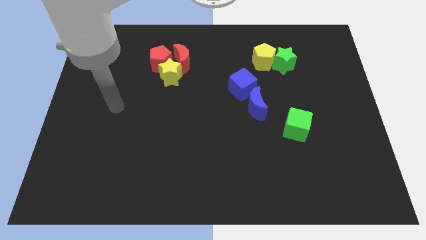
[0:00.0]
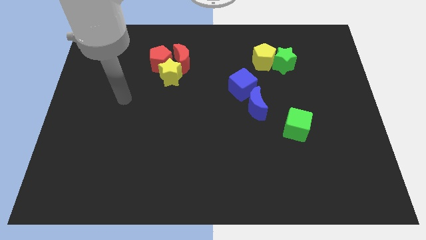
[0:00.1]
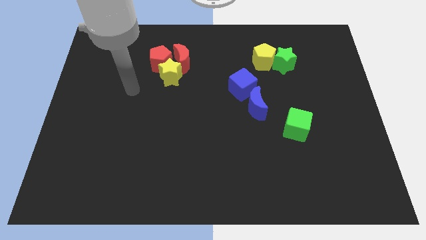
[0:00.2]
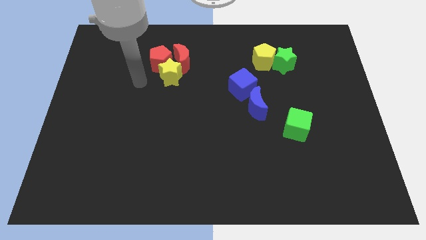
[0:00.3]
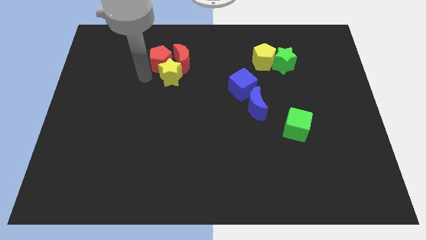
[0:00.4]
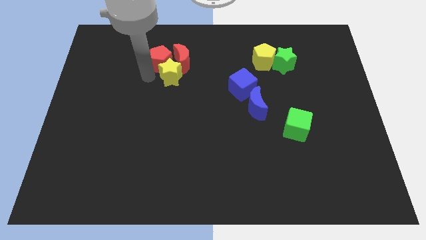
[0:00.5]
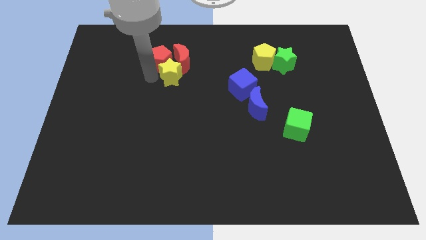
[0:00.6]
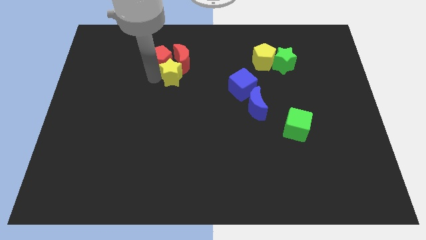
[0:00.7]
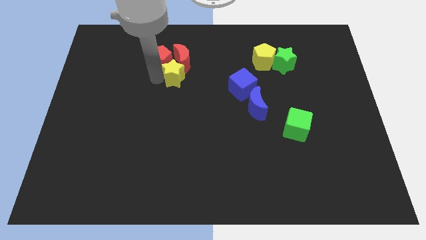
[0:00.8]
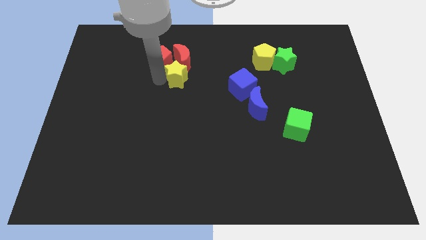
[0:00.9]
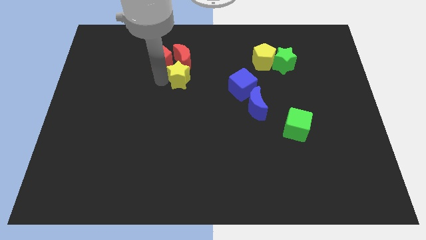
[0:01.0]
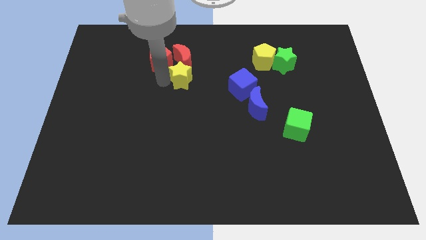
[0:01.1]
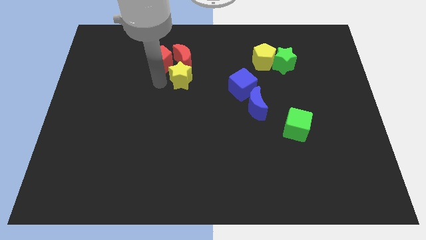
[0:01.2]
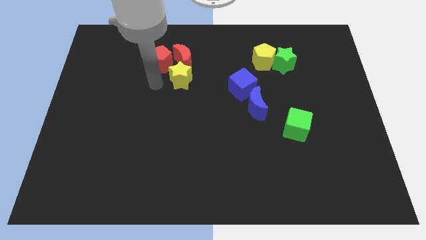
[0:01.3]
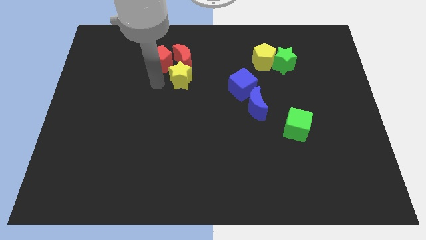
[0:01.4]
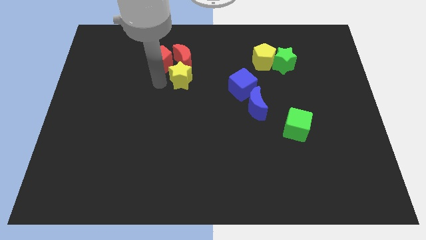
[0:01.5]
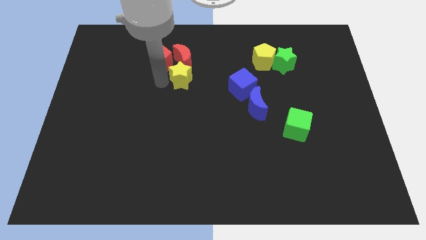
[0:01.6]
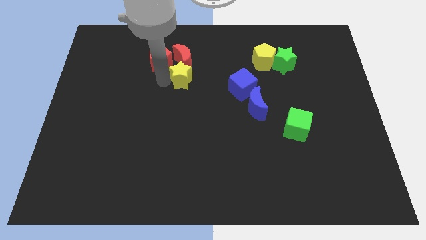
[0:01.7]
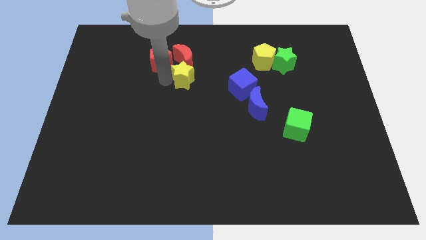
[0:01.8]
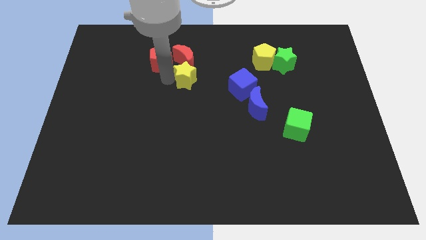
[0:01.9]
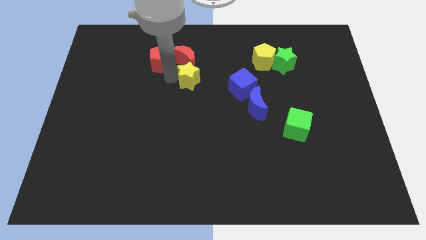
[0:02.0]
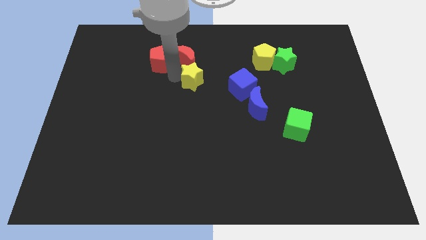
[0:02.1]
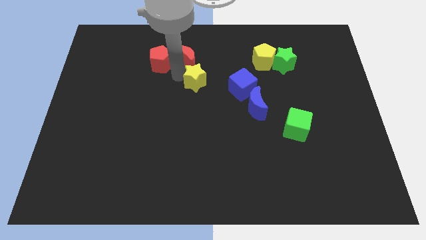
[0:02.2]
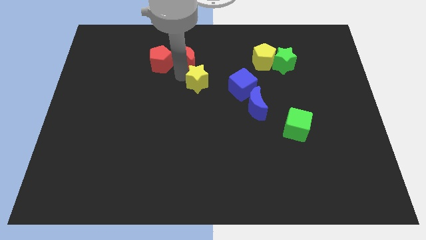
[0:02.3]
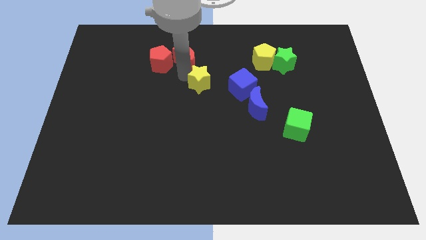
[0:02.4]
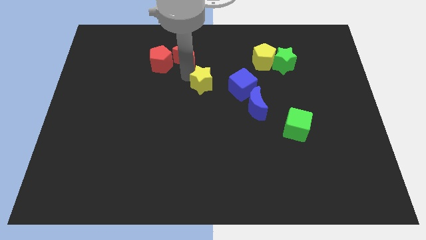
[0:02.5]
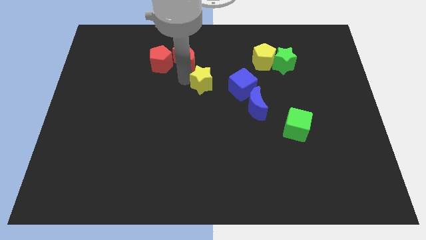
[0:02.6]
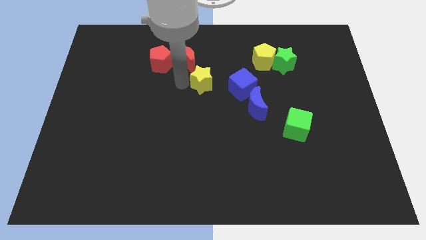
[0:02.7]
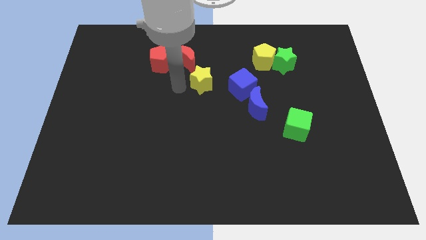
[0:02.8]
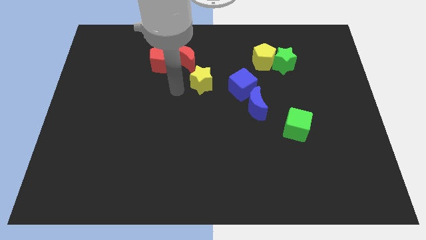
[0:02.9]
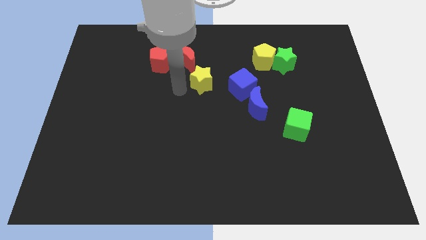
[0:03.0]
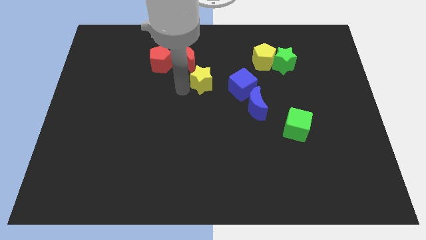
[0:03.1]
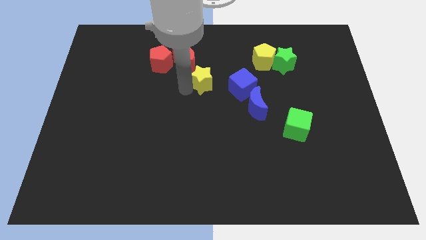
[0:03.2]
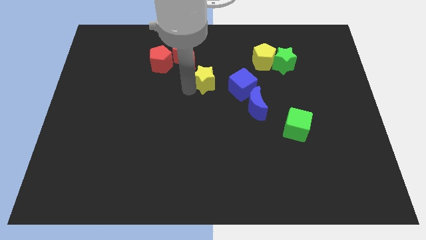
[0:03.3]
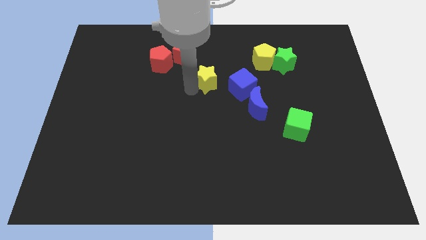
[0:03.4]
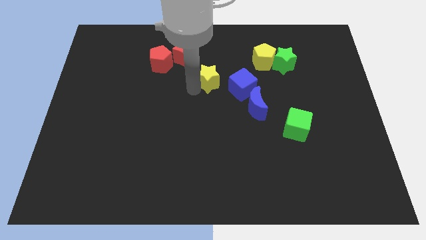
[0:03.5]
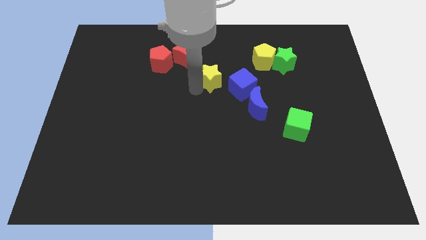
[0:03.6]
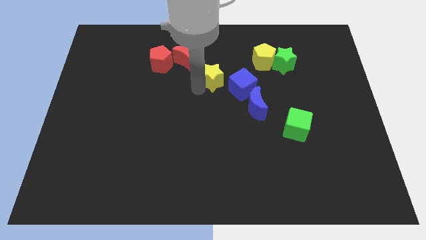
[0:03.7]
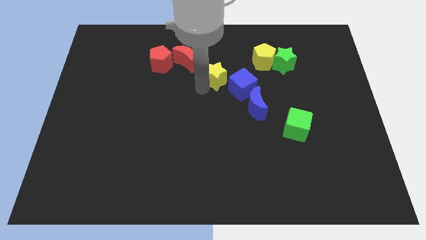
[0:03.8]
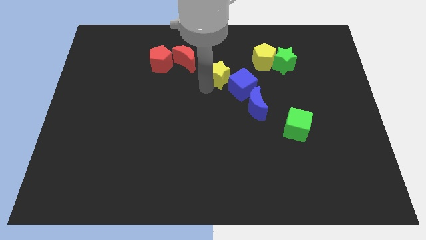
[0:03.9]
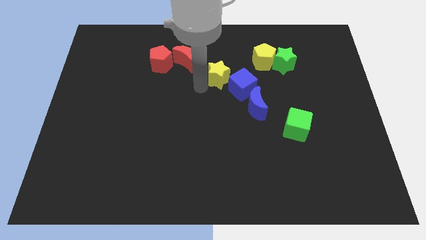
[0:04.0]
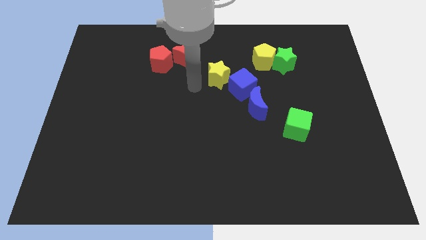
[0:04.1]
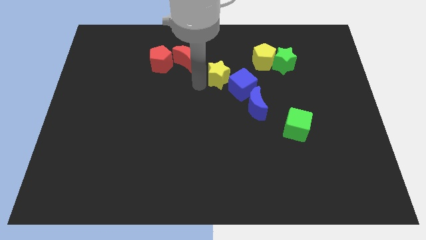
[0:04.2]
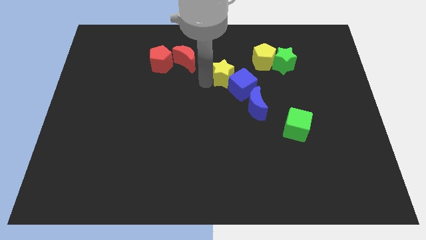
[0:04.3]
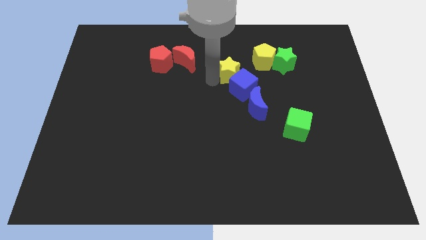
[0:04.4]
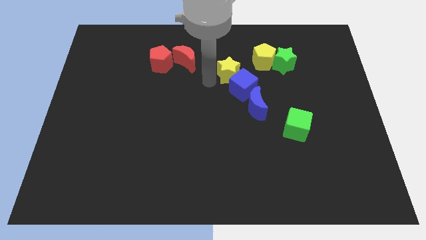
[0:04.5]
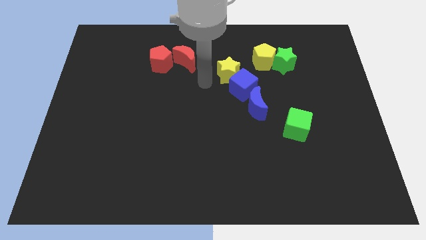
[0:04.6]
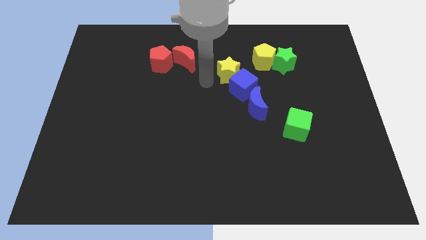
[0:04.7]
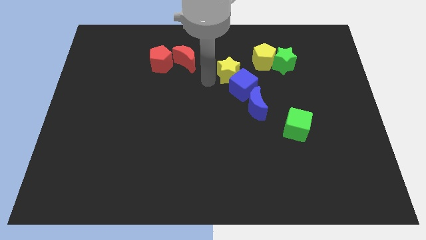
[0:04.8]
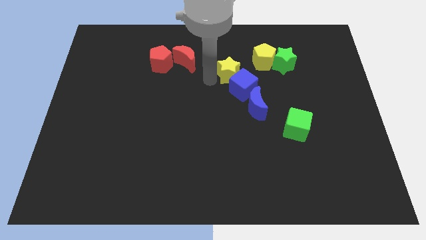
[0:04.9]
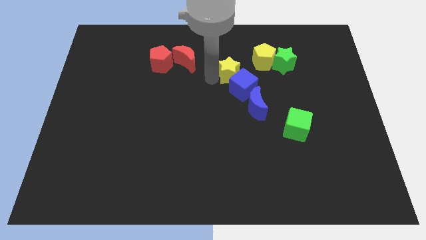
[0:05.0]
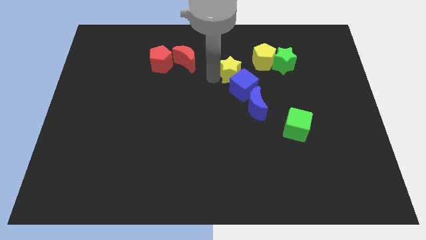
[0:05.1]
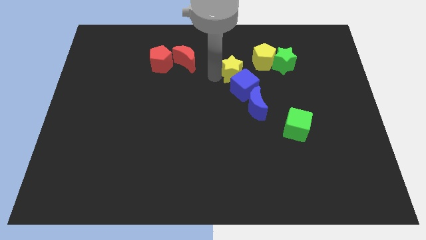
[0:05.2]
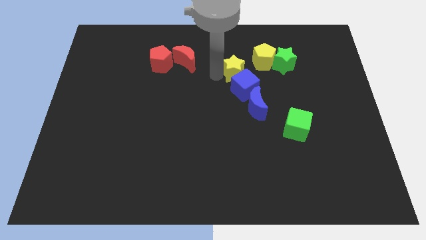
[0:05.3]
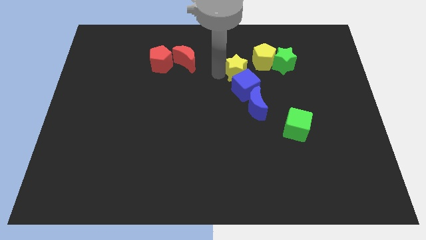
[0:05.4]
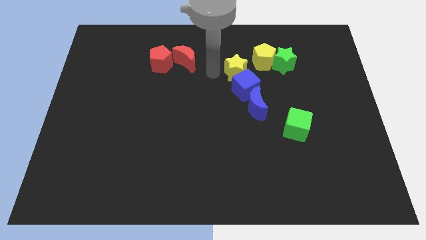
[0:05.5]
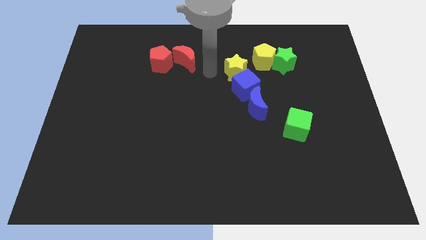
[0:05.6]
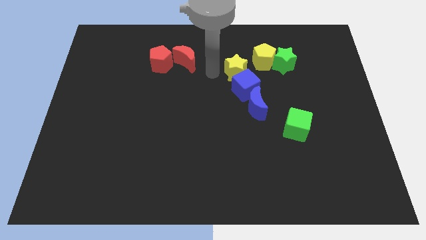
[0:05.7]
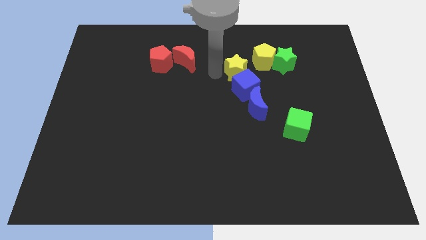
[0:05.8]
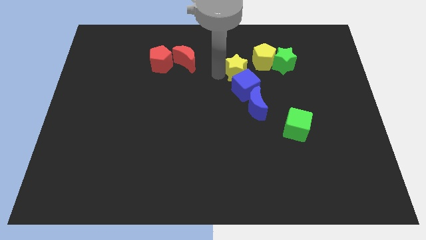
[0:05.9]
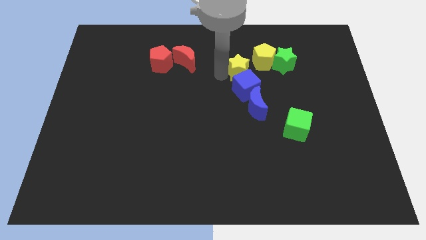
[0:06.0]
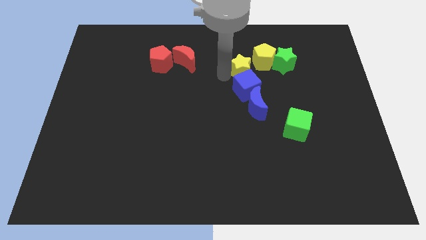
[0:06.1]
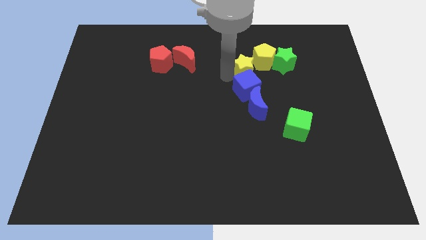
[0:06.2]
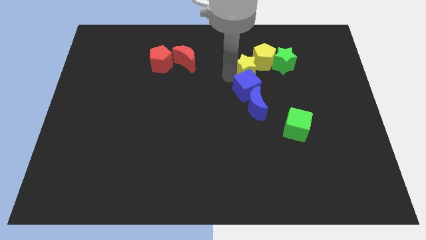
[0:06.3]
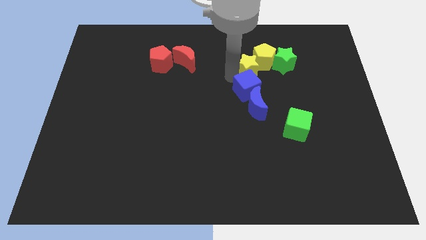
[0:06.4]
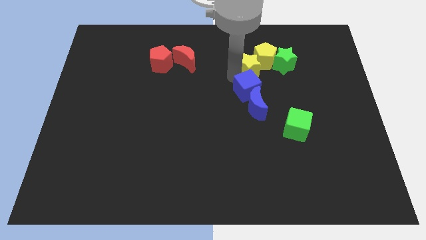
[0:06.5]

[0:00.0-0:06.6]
slide the yellow star right

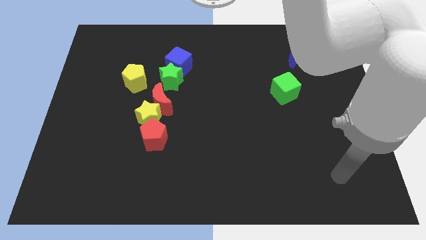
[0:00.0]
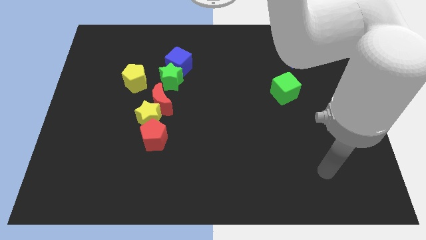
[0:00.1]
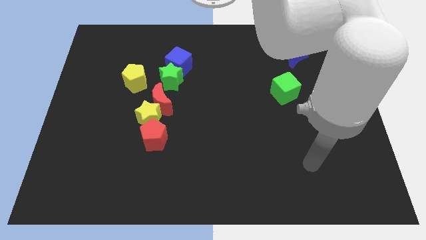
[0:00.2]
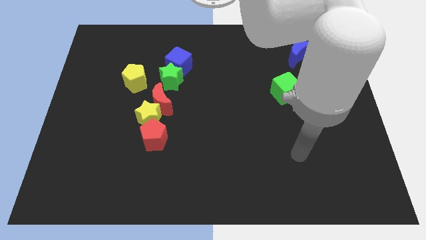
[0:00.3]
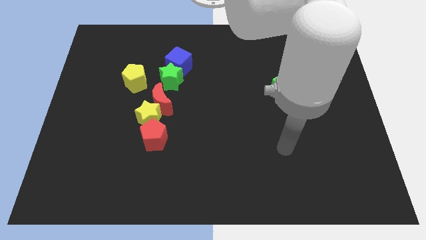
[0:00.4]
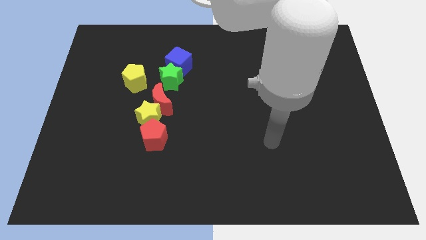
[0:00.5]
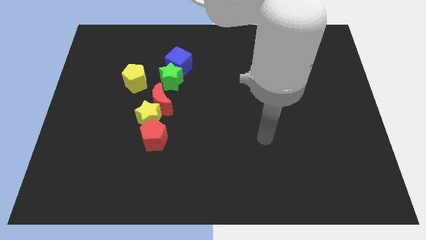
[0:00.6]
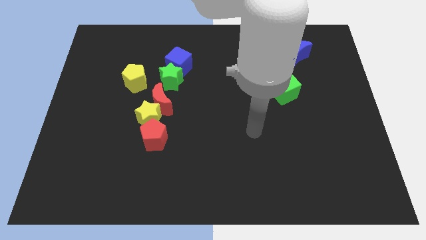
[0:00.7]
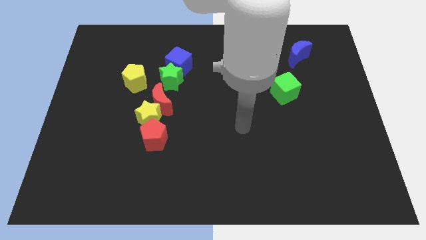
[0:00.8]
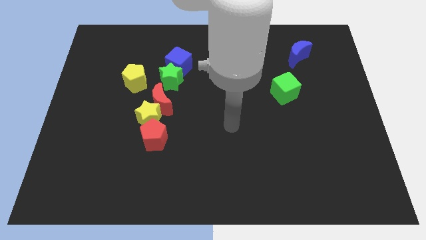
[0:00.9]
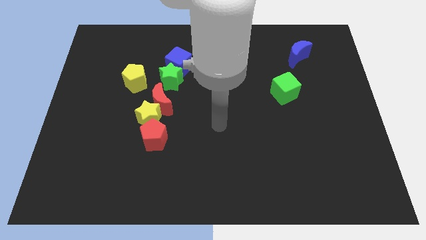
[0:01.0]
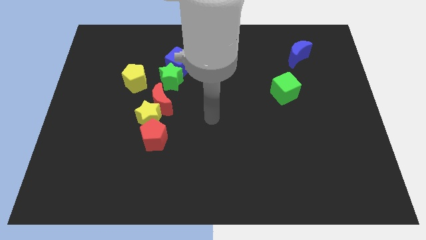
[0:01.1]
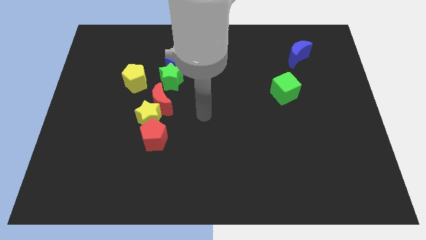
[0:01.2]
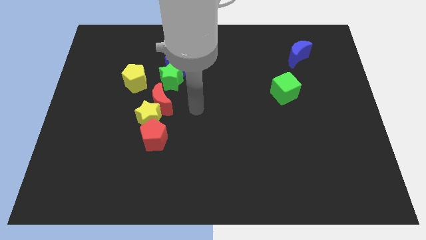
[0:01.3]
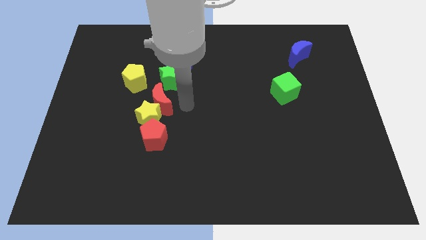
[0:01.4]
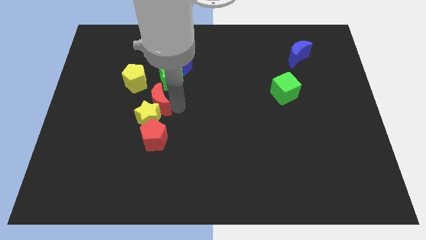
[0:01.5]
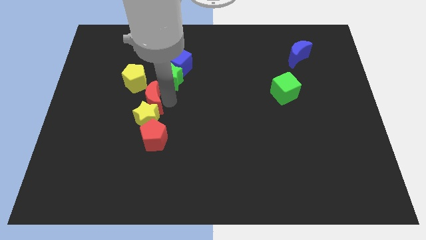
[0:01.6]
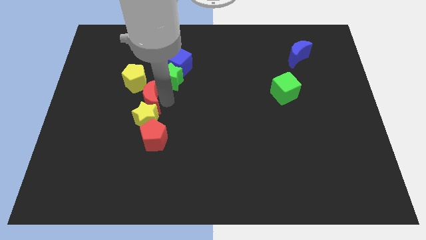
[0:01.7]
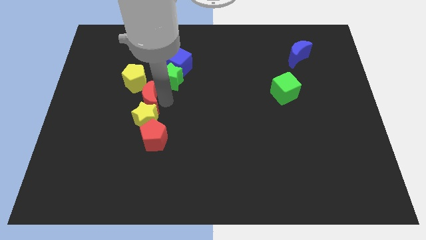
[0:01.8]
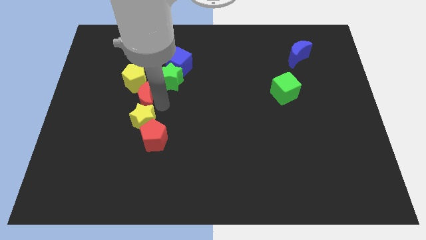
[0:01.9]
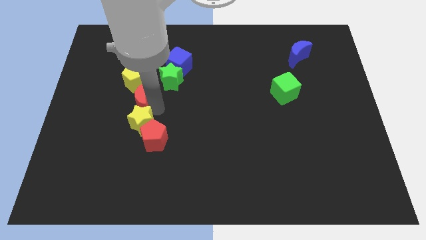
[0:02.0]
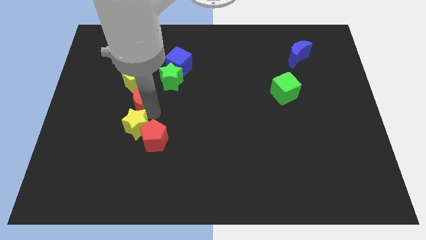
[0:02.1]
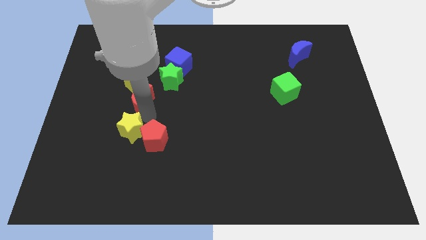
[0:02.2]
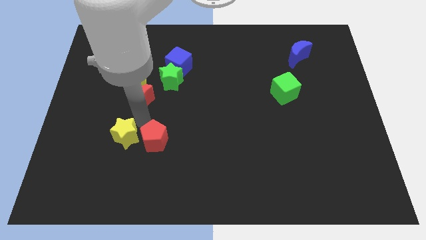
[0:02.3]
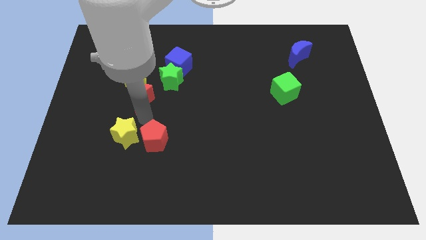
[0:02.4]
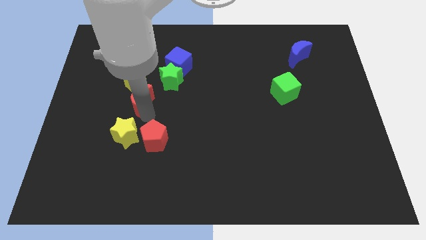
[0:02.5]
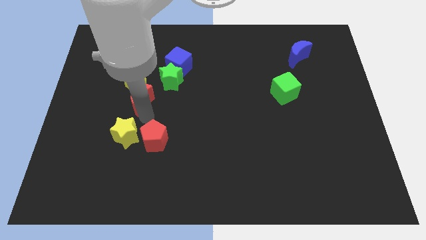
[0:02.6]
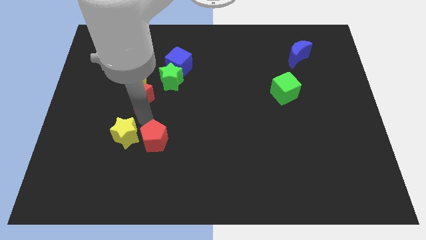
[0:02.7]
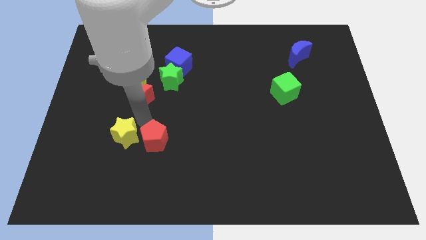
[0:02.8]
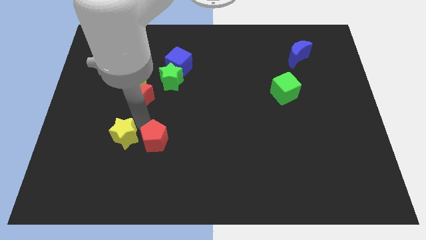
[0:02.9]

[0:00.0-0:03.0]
slightly move the yellow star diagonally down and left
